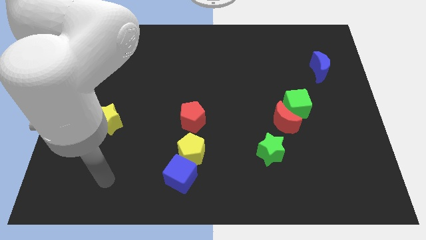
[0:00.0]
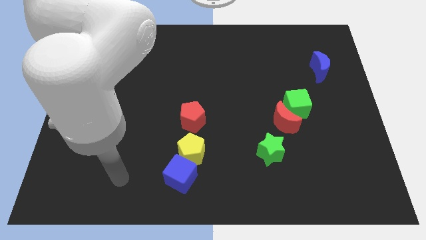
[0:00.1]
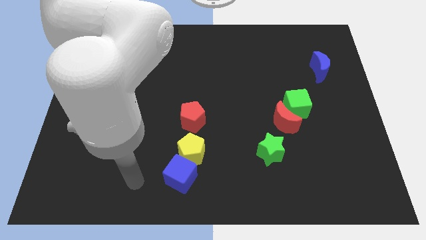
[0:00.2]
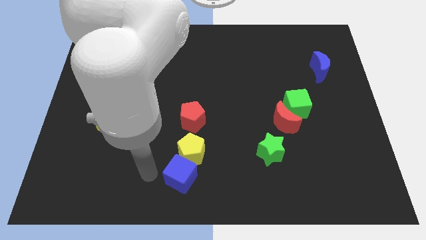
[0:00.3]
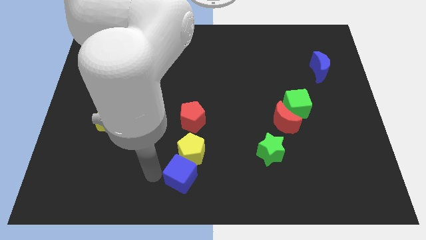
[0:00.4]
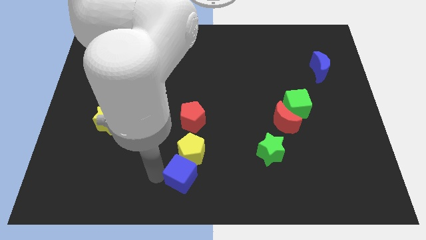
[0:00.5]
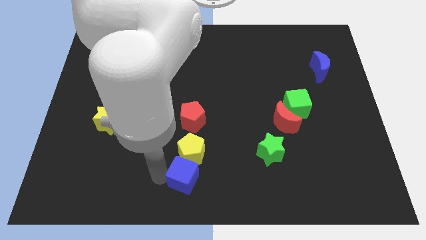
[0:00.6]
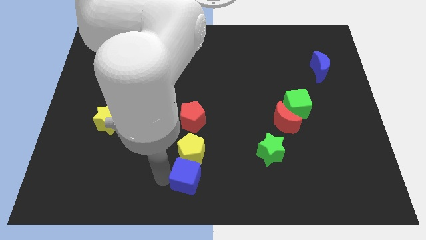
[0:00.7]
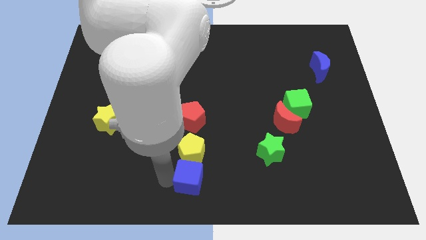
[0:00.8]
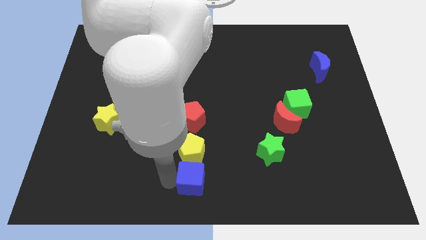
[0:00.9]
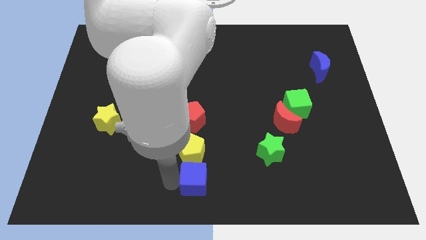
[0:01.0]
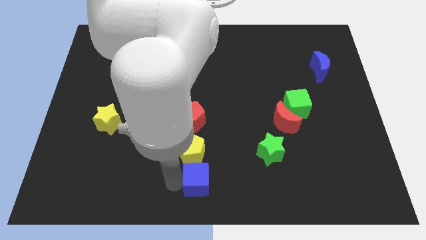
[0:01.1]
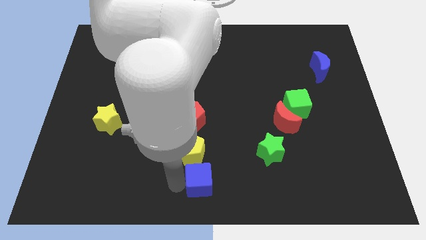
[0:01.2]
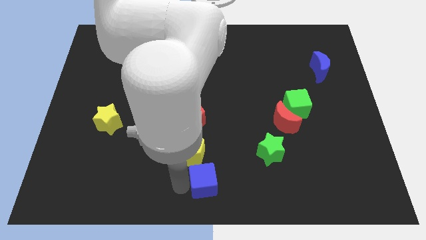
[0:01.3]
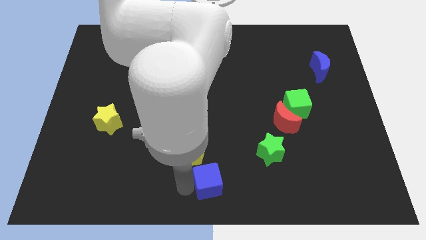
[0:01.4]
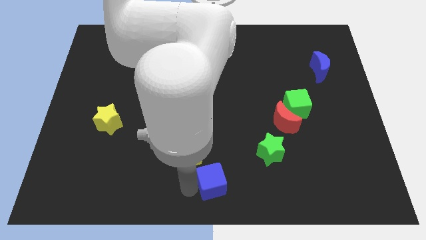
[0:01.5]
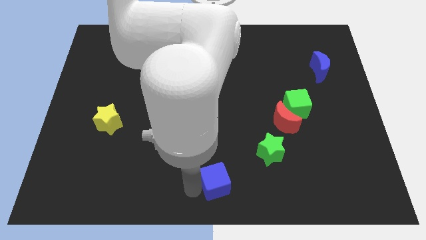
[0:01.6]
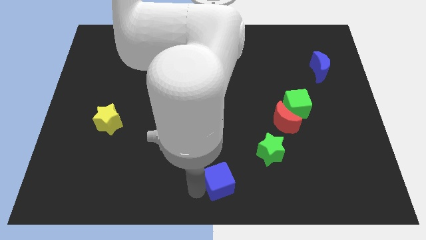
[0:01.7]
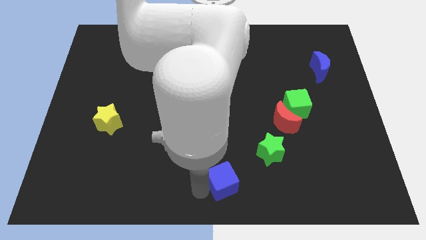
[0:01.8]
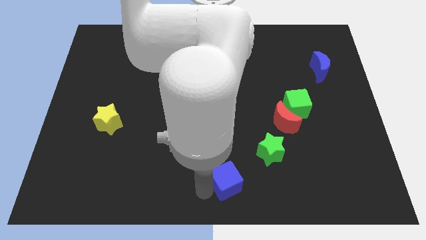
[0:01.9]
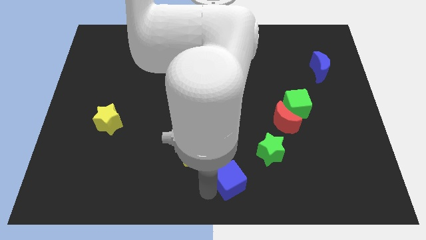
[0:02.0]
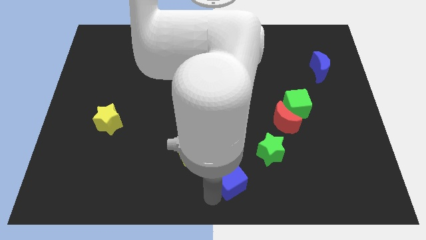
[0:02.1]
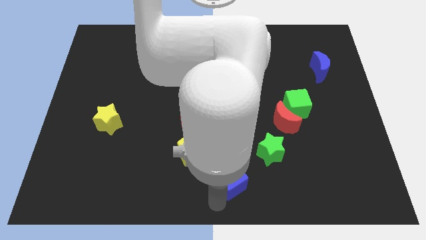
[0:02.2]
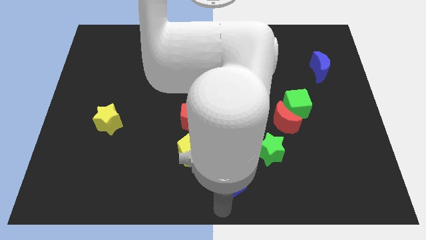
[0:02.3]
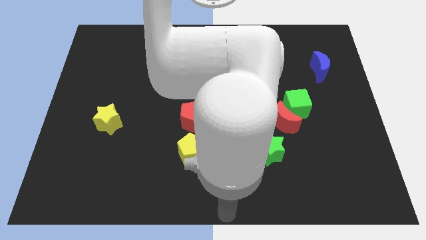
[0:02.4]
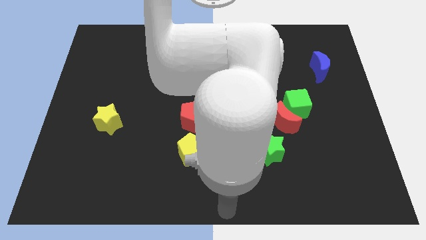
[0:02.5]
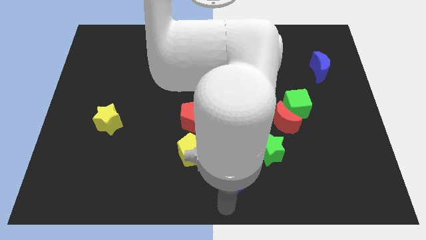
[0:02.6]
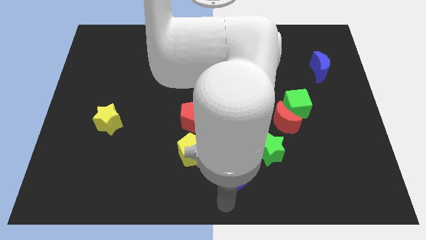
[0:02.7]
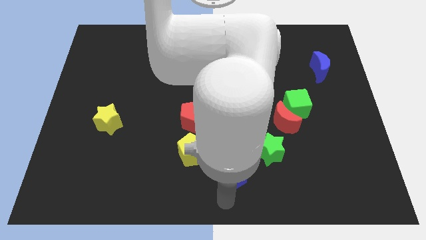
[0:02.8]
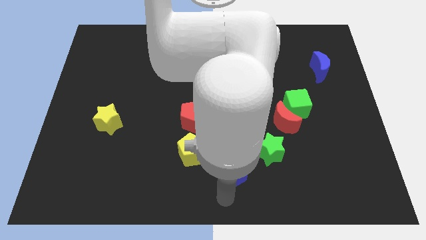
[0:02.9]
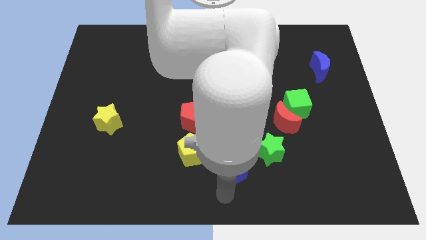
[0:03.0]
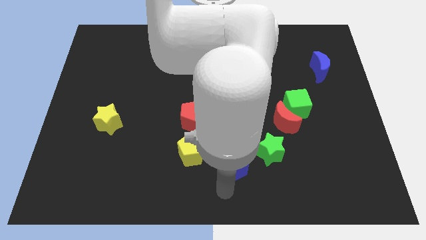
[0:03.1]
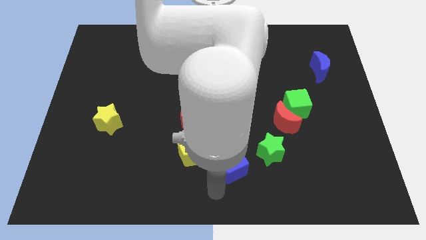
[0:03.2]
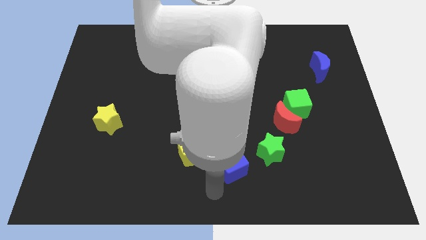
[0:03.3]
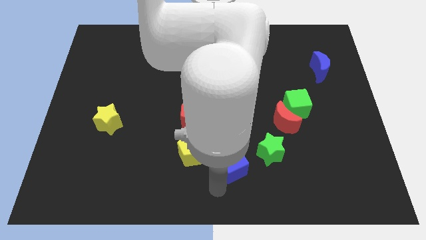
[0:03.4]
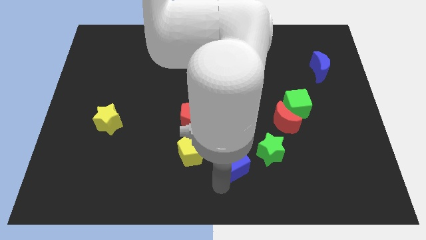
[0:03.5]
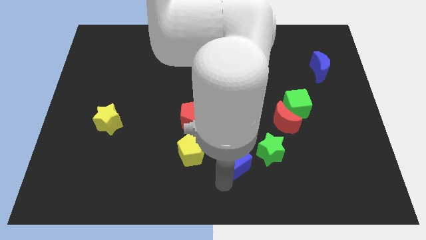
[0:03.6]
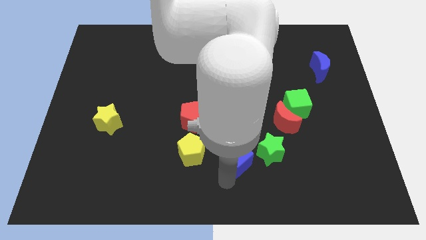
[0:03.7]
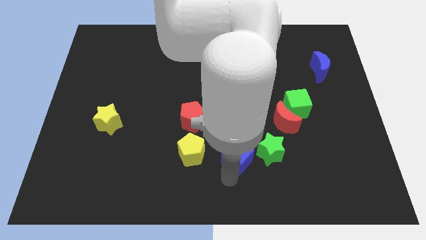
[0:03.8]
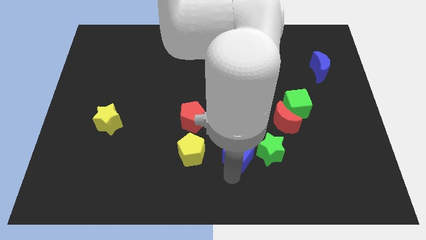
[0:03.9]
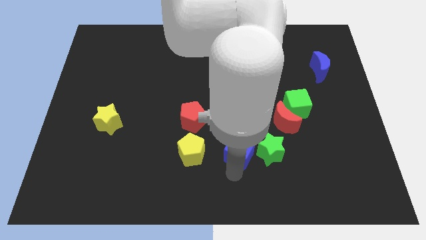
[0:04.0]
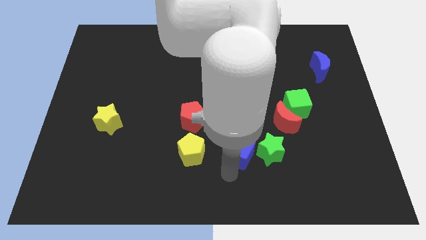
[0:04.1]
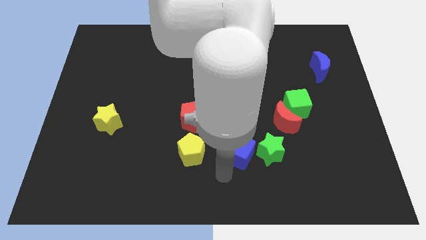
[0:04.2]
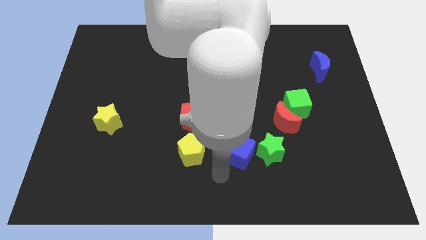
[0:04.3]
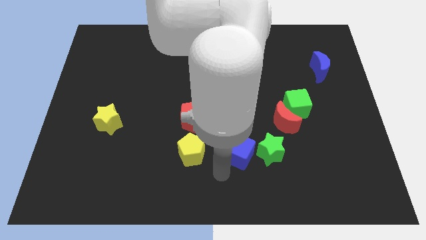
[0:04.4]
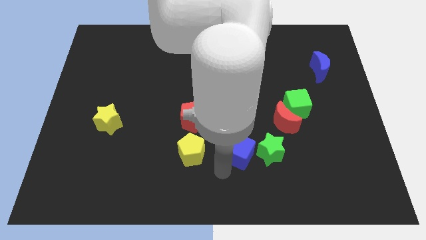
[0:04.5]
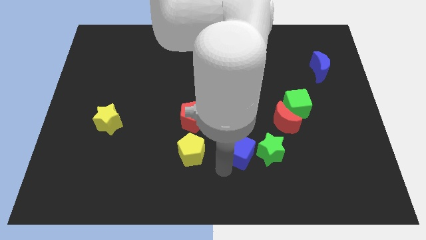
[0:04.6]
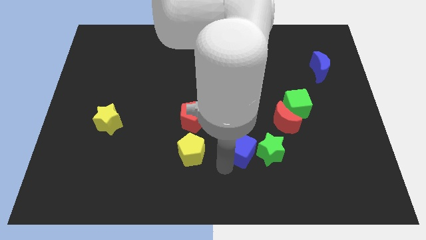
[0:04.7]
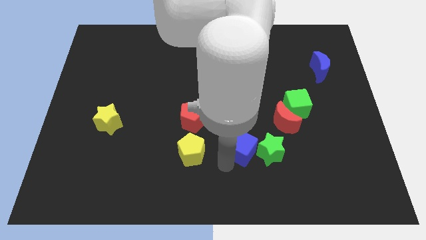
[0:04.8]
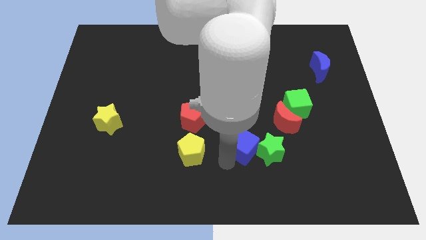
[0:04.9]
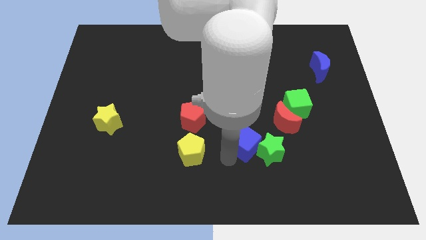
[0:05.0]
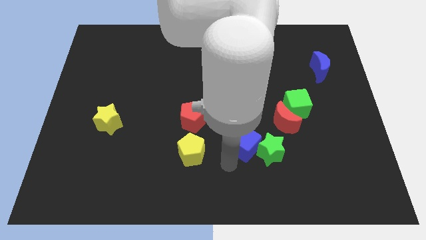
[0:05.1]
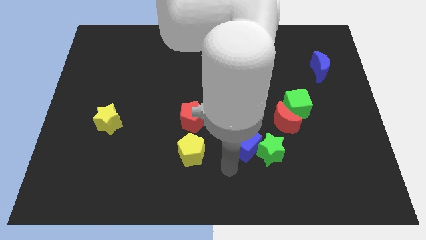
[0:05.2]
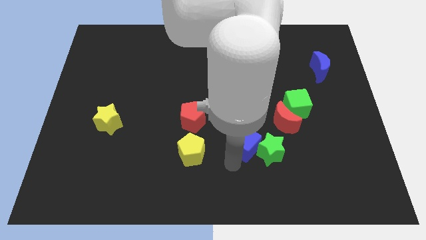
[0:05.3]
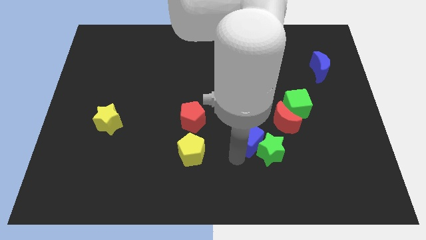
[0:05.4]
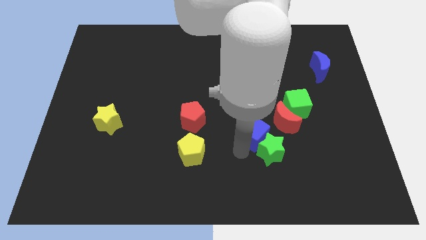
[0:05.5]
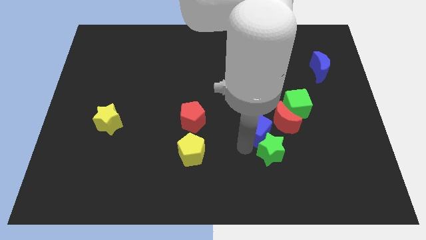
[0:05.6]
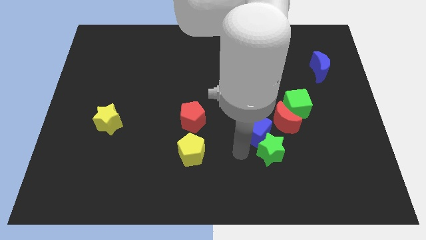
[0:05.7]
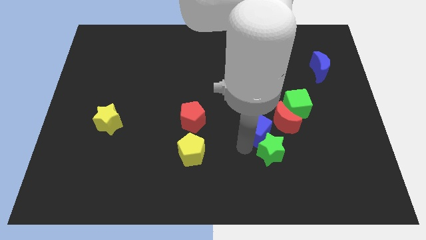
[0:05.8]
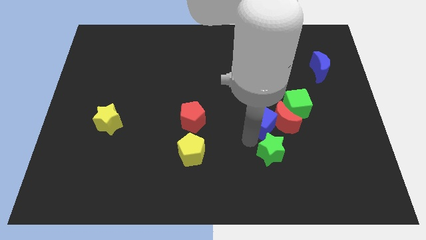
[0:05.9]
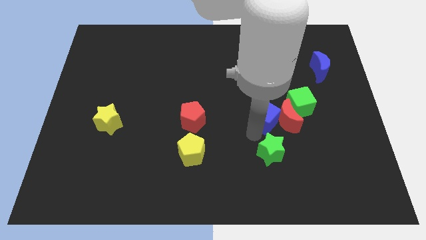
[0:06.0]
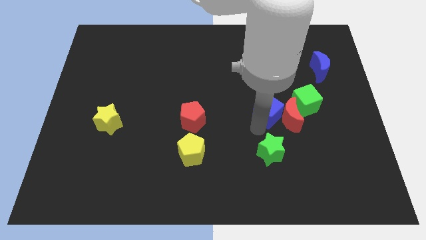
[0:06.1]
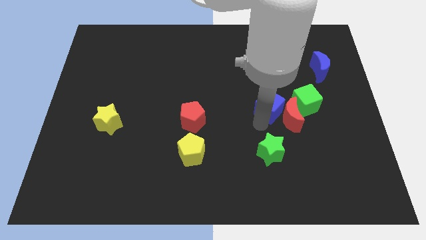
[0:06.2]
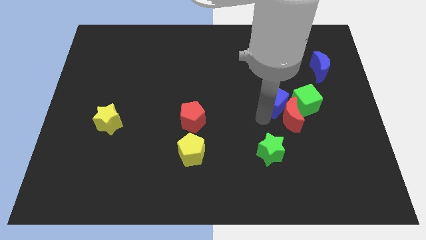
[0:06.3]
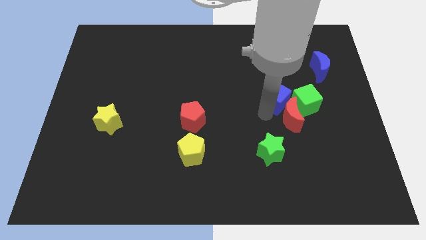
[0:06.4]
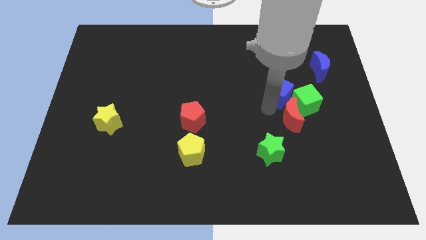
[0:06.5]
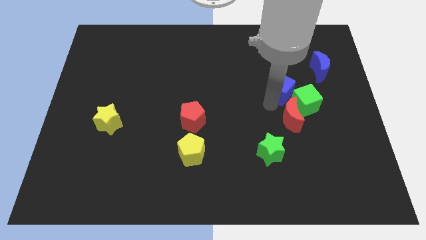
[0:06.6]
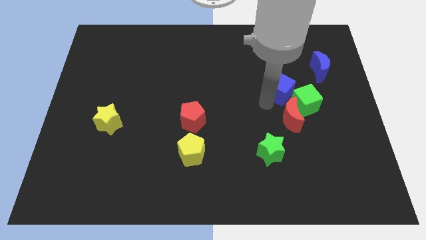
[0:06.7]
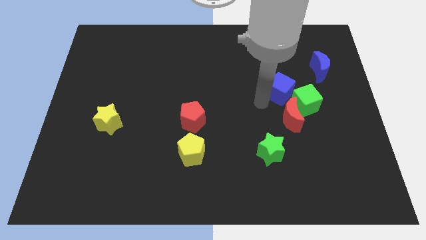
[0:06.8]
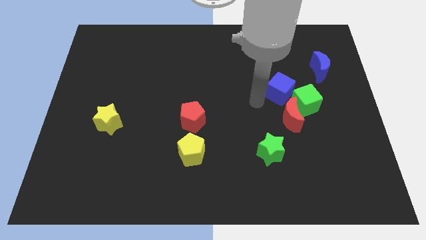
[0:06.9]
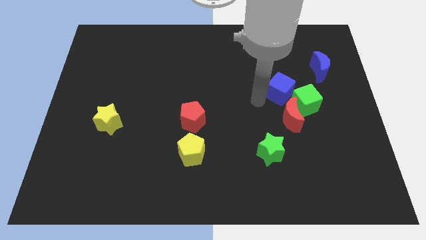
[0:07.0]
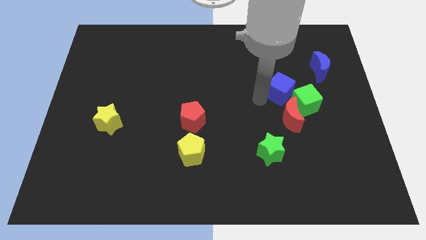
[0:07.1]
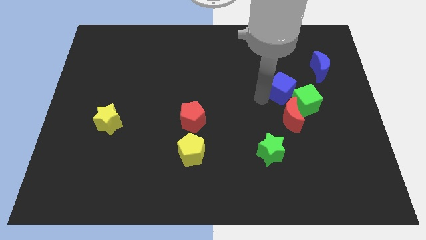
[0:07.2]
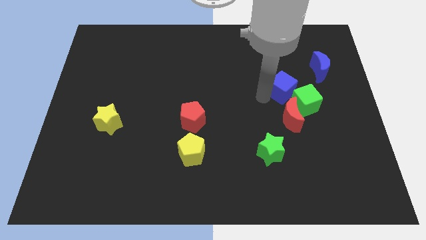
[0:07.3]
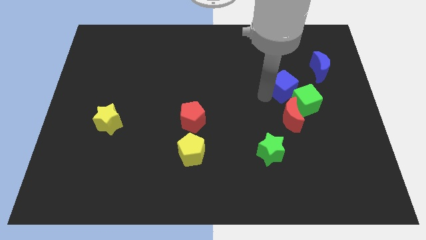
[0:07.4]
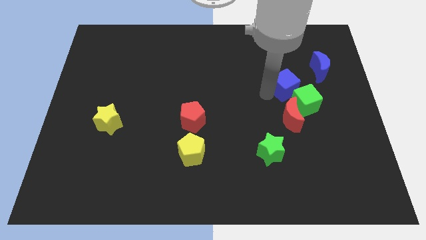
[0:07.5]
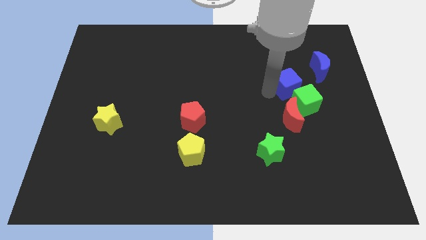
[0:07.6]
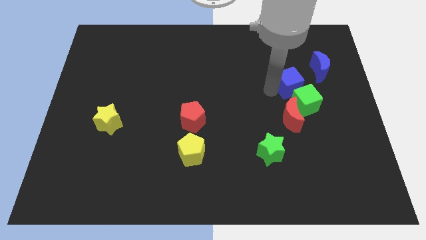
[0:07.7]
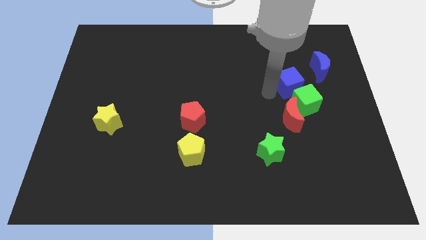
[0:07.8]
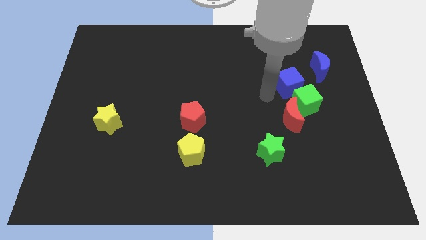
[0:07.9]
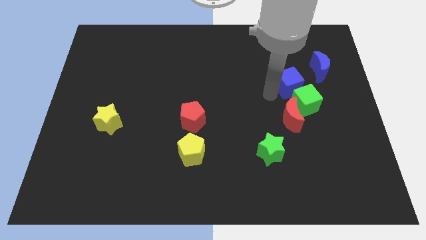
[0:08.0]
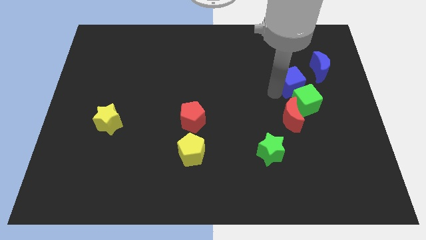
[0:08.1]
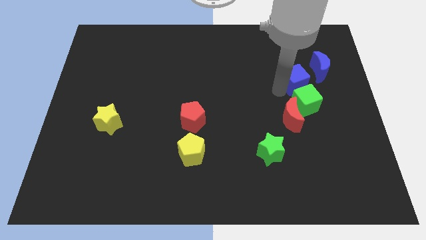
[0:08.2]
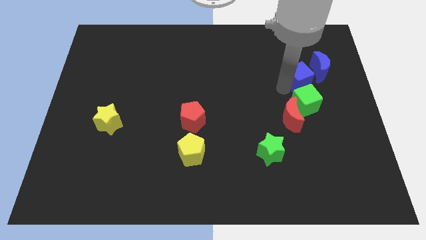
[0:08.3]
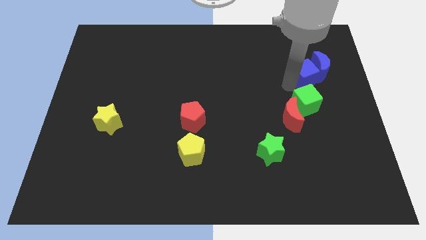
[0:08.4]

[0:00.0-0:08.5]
move the blue cube to the blue moon
